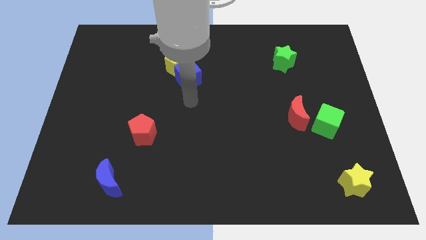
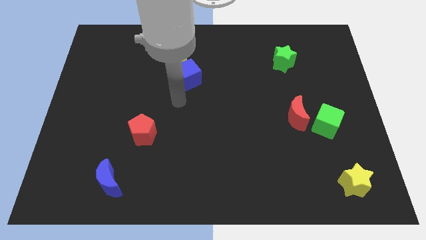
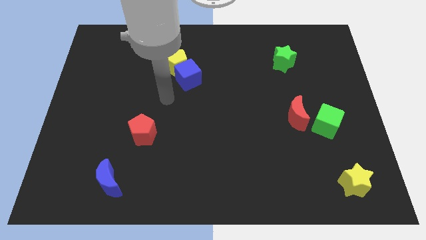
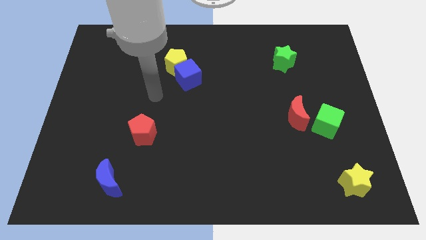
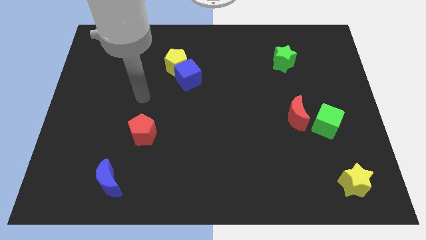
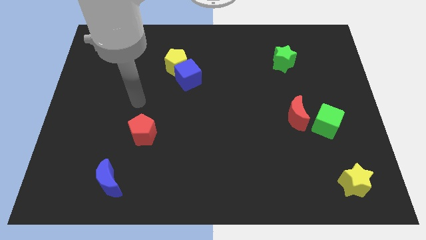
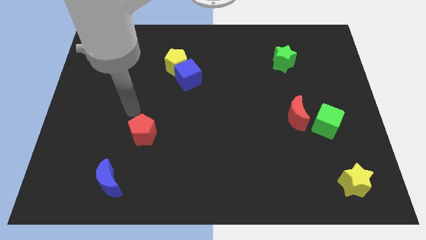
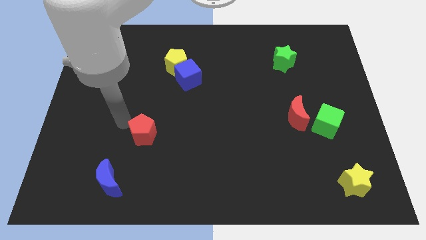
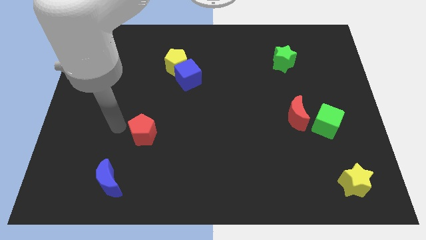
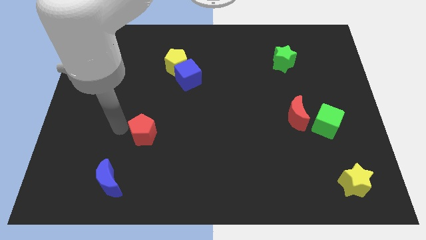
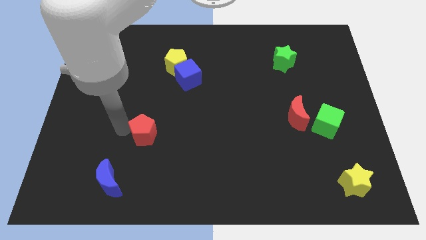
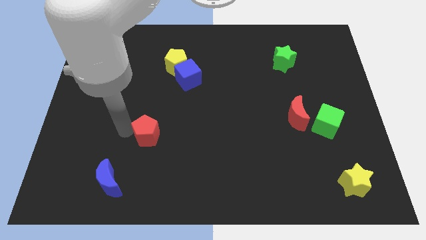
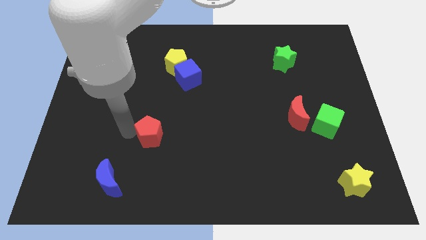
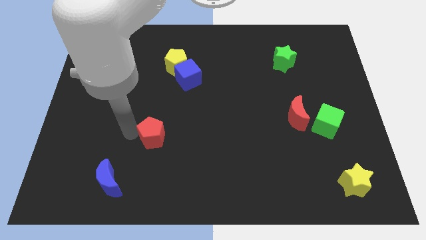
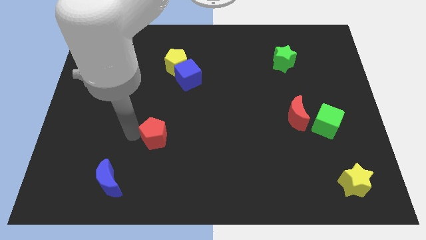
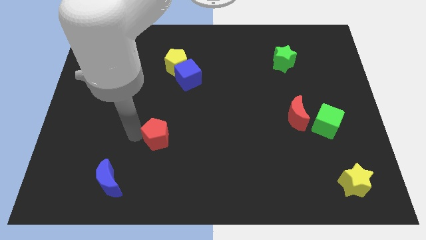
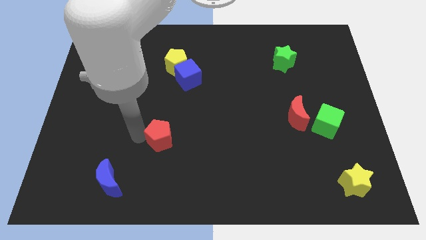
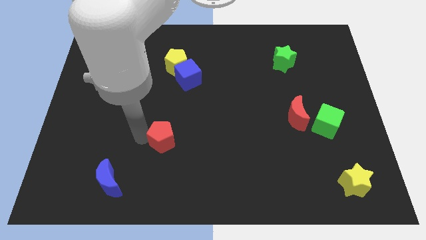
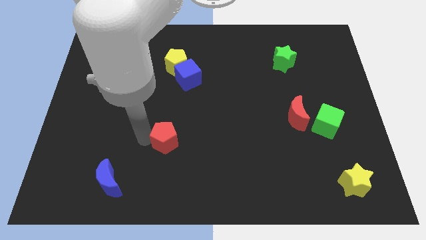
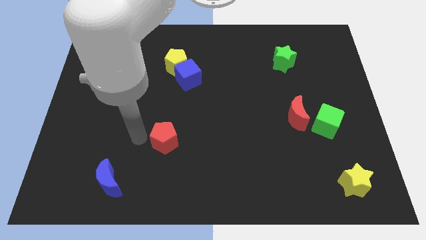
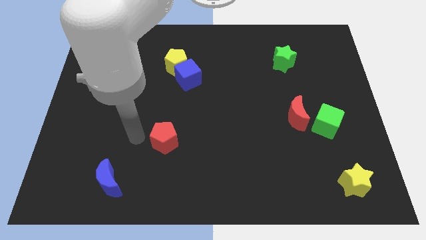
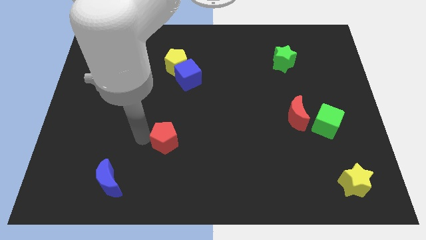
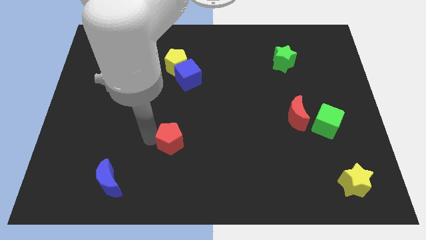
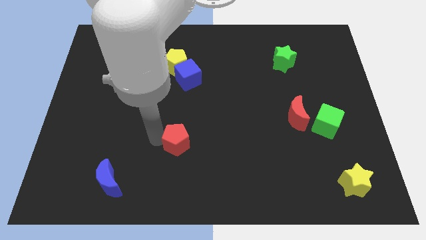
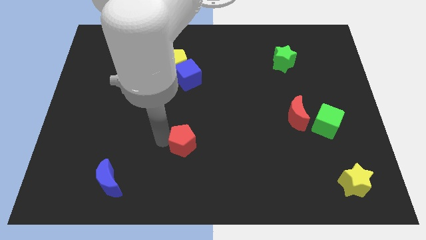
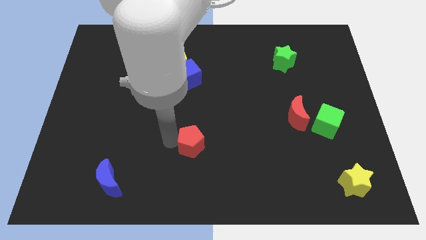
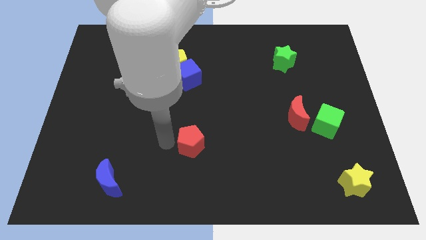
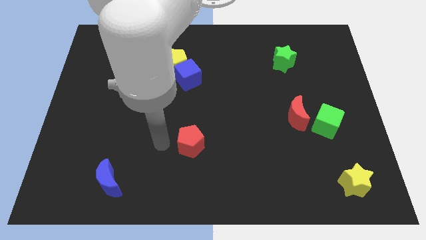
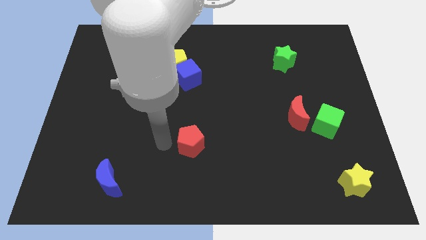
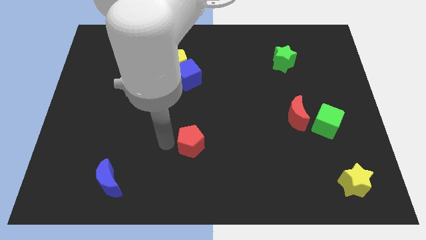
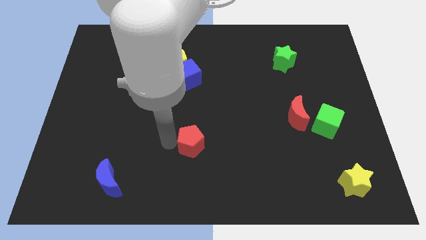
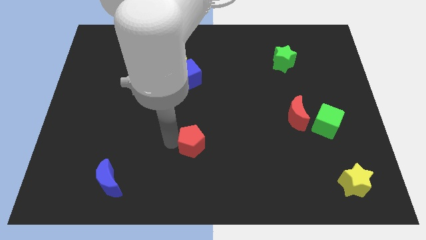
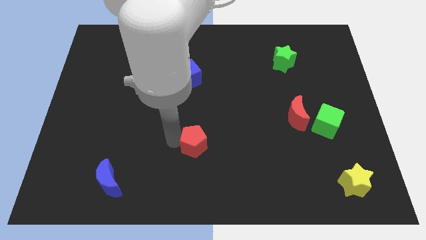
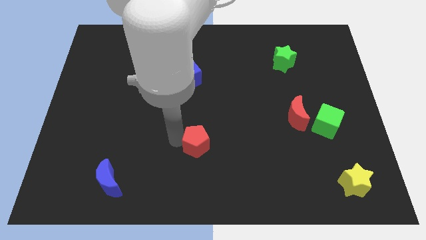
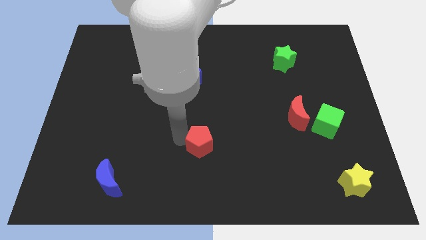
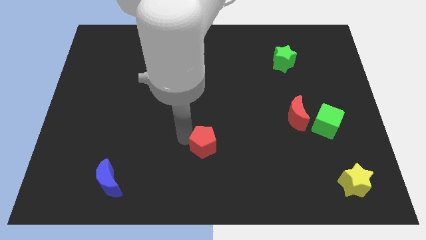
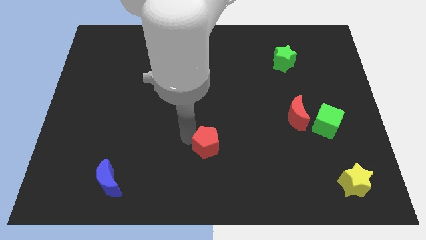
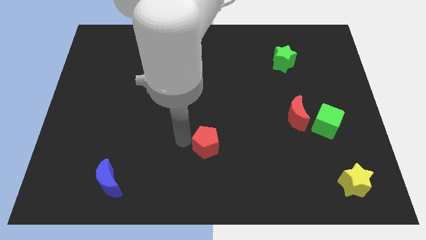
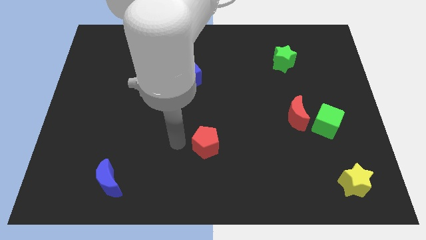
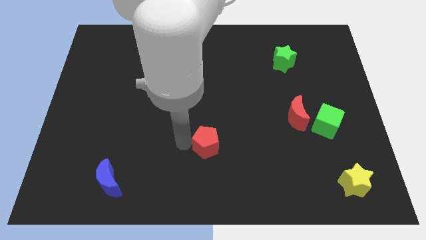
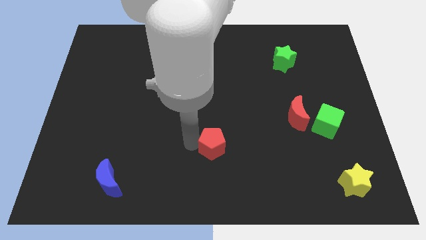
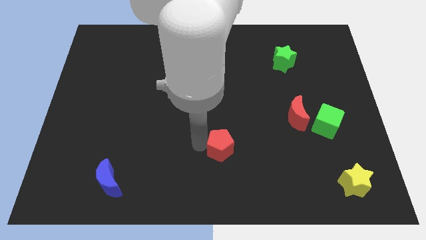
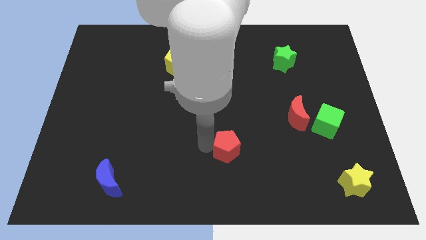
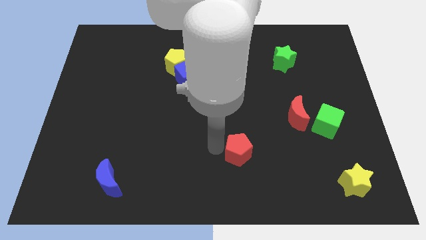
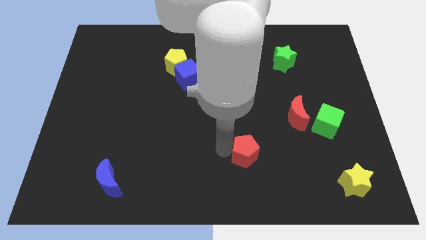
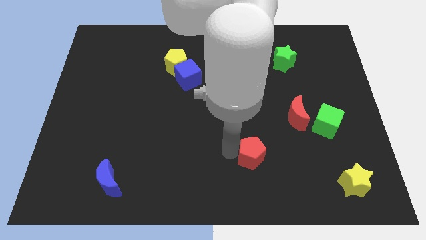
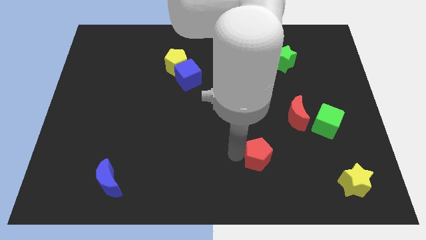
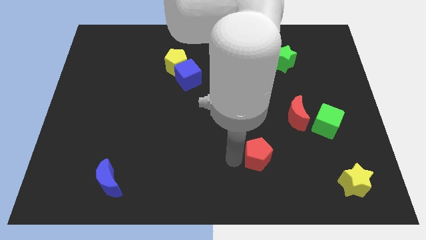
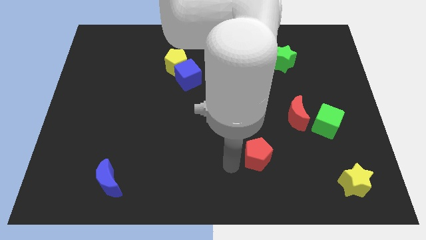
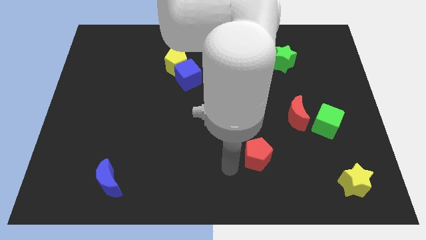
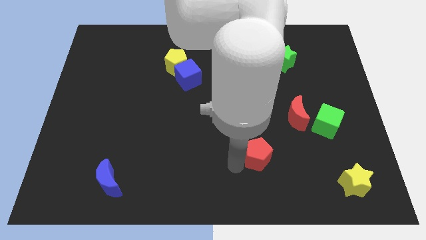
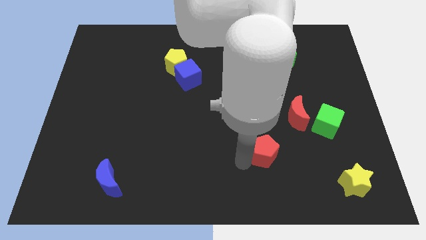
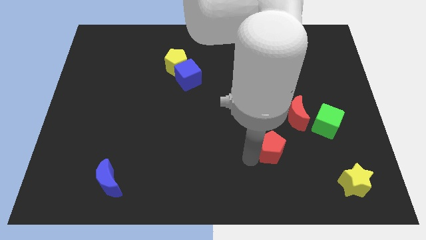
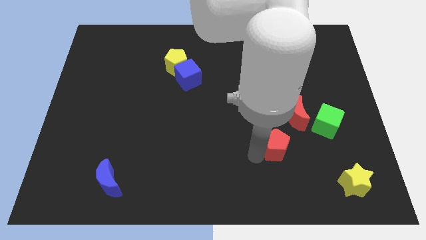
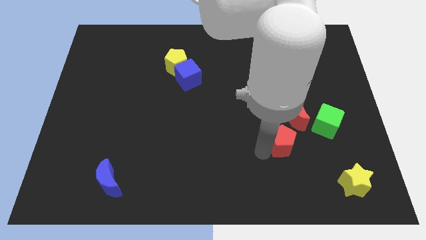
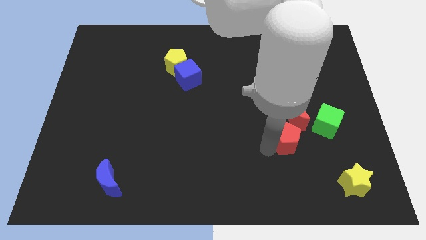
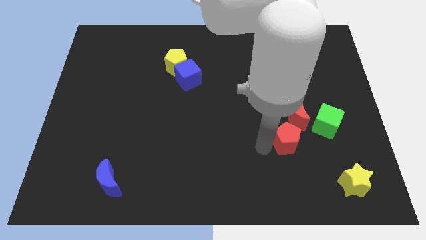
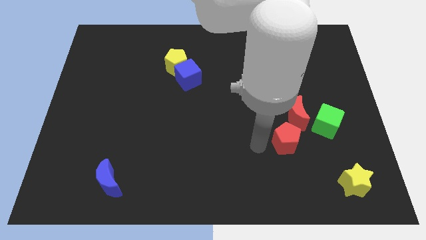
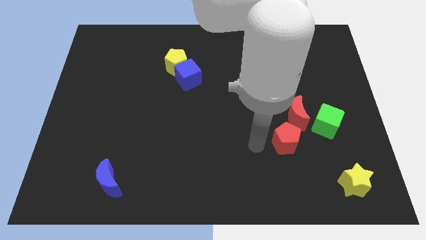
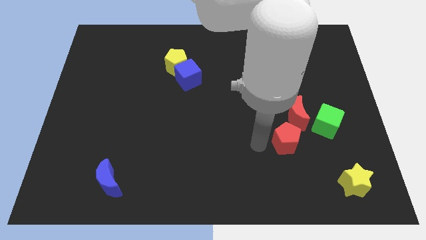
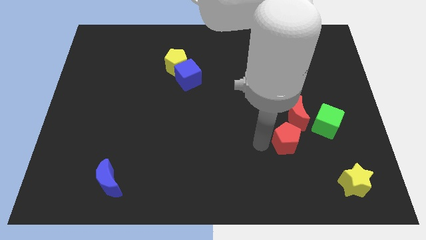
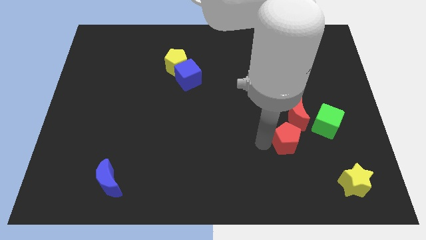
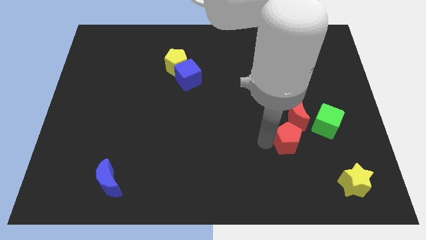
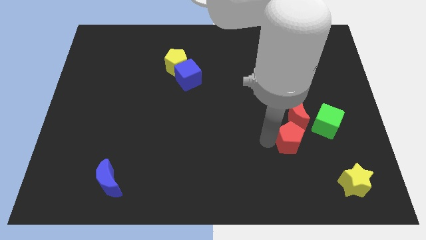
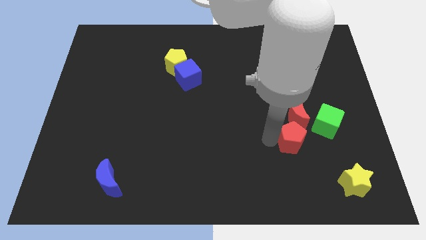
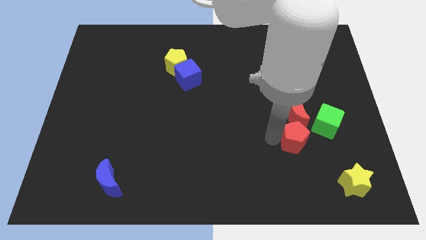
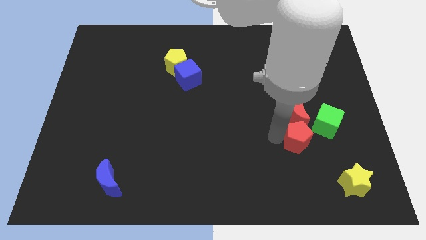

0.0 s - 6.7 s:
slide the red pentagon to the bottom right side of the red moon

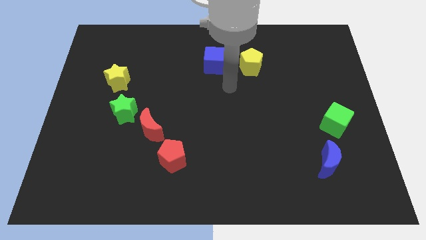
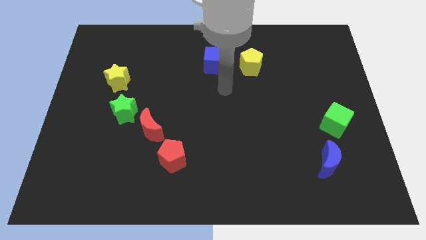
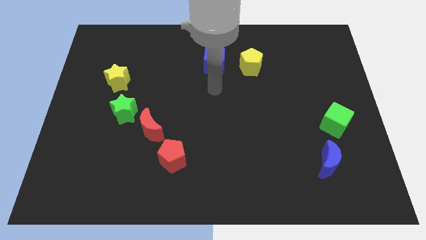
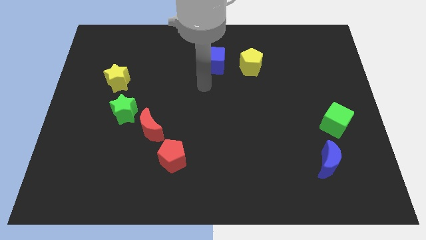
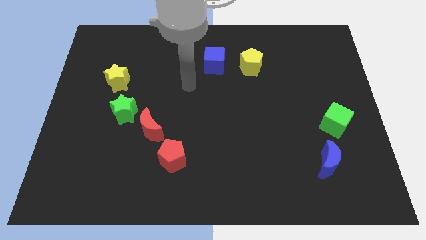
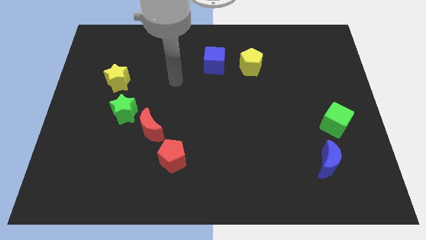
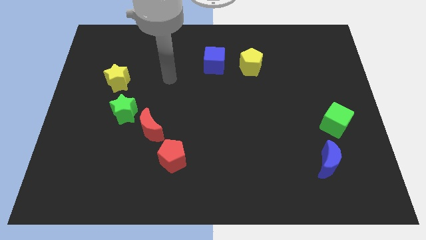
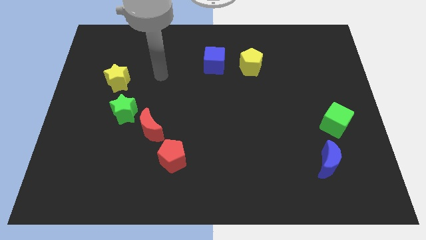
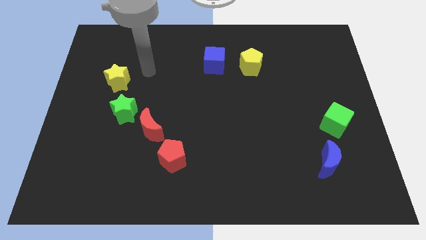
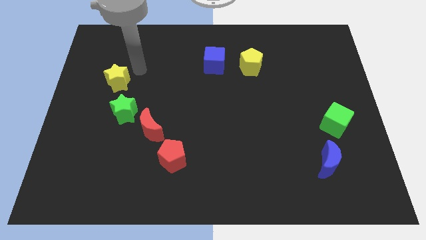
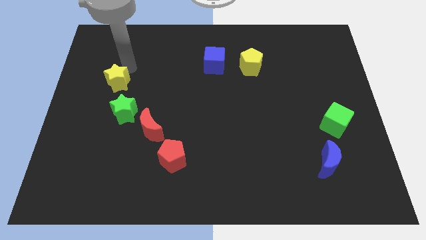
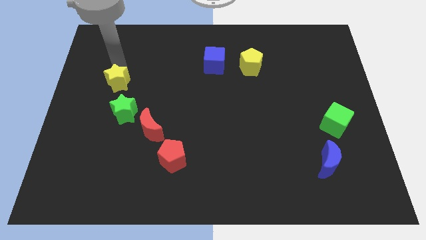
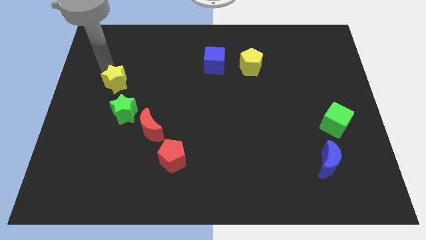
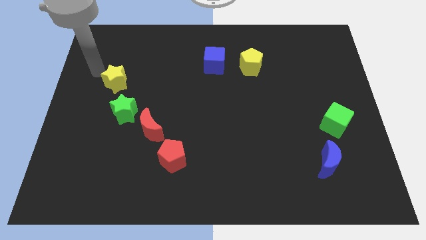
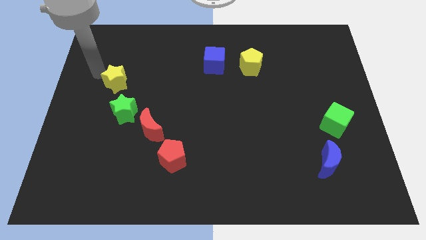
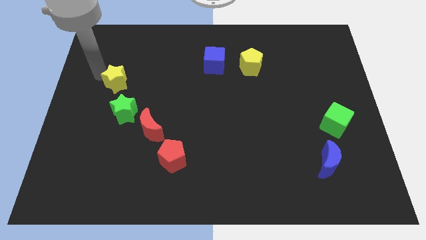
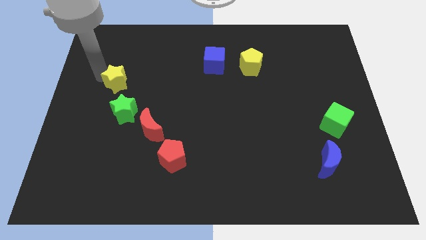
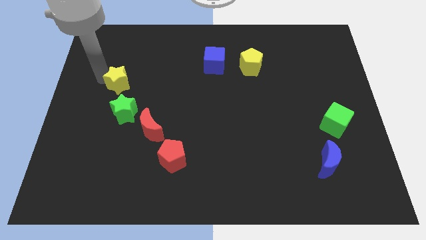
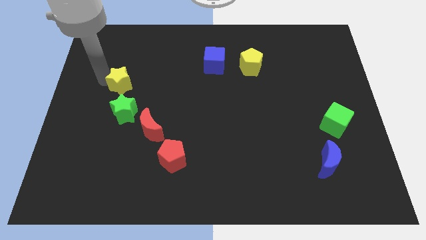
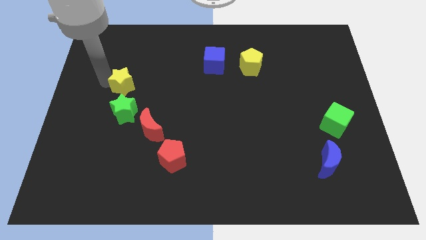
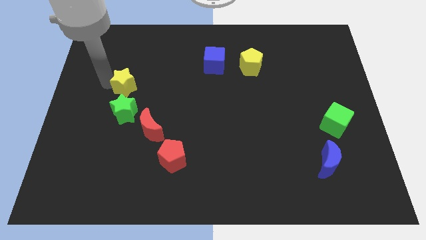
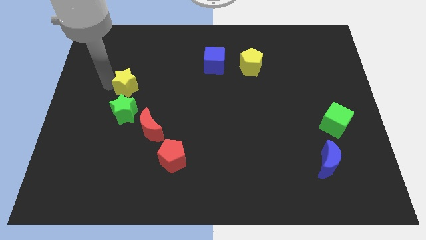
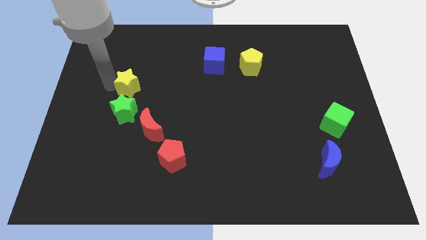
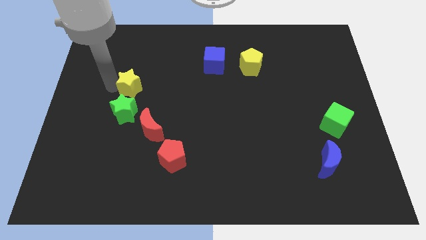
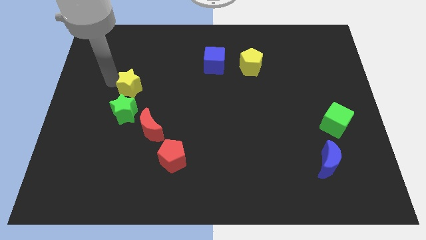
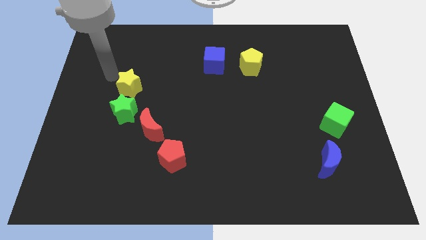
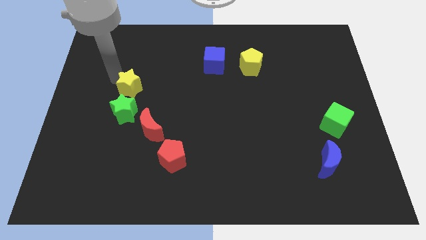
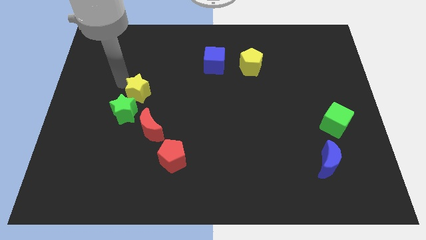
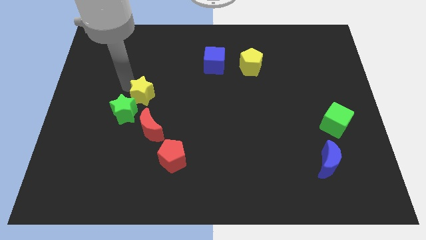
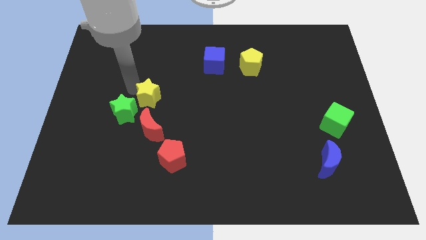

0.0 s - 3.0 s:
move the yellow star right of the green star
